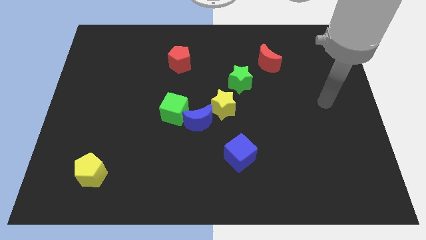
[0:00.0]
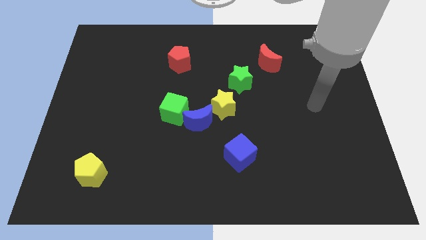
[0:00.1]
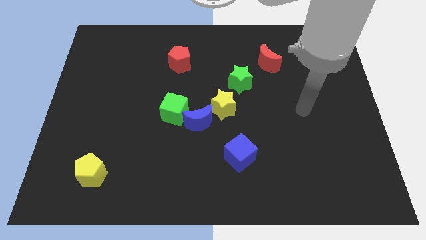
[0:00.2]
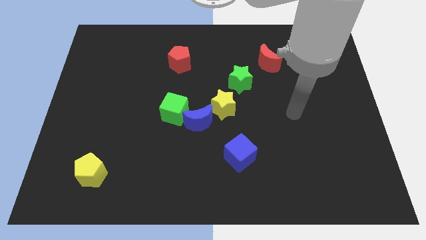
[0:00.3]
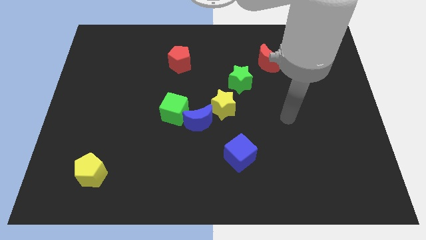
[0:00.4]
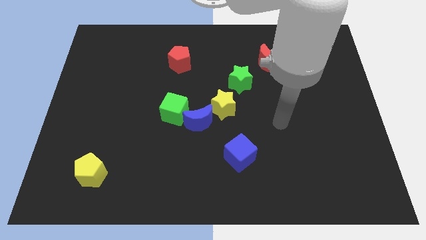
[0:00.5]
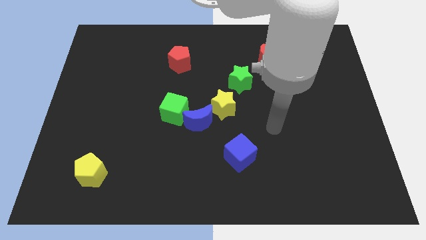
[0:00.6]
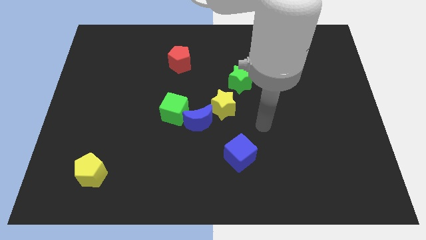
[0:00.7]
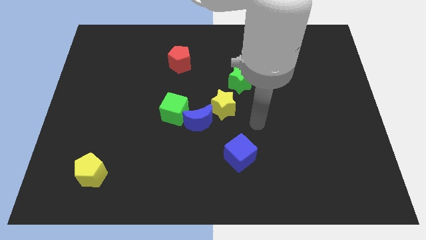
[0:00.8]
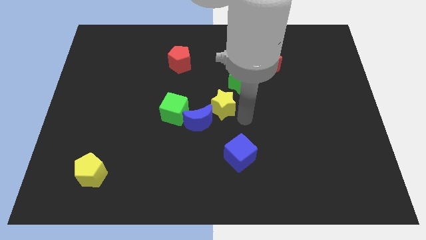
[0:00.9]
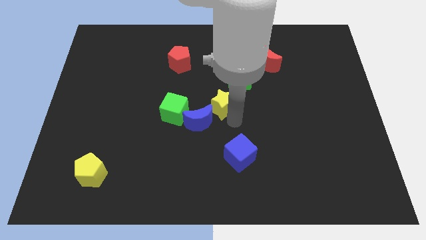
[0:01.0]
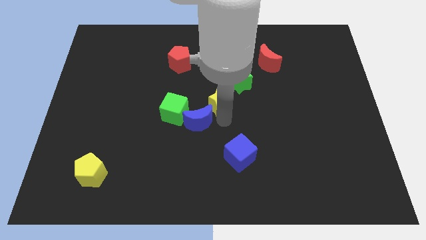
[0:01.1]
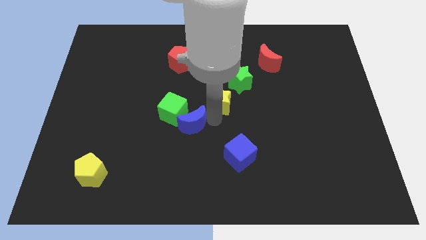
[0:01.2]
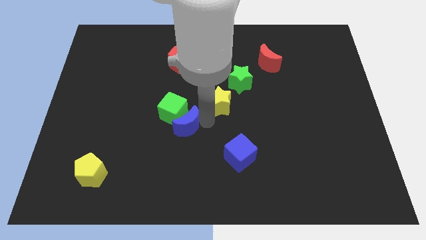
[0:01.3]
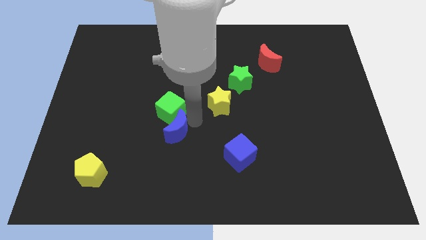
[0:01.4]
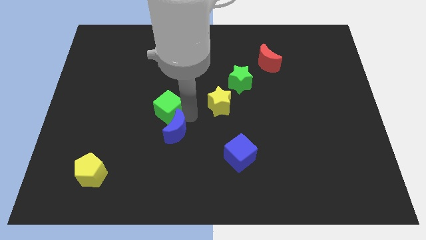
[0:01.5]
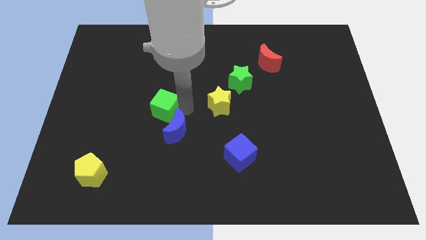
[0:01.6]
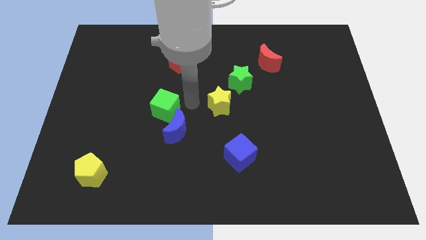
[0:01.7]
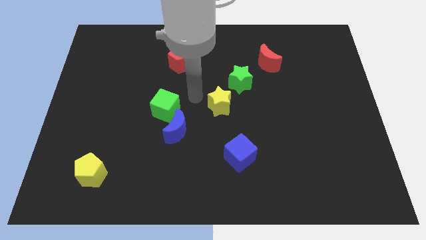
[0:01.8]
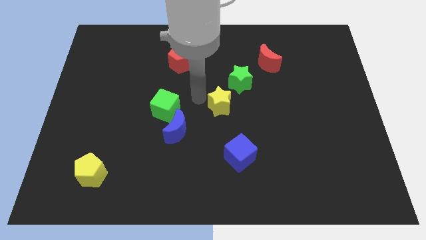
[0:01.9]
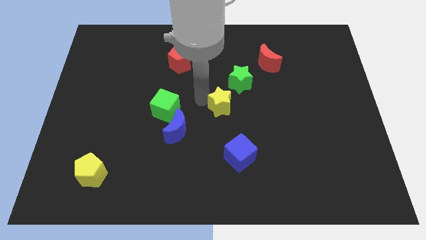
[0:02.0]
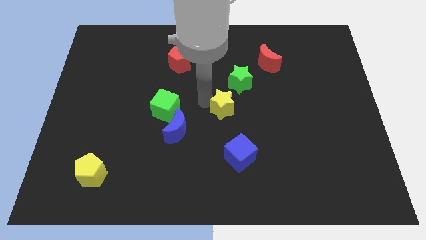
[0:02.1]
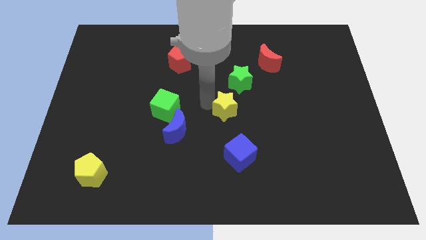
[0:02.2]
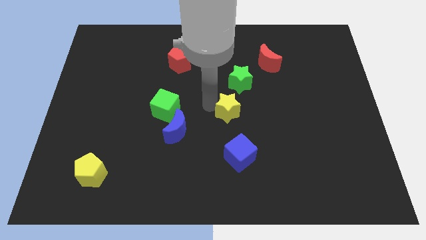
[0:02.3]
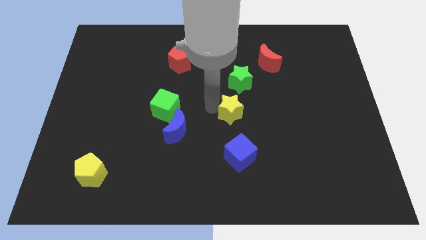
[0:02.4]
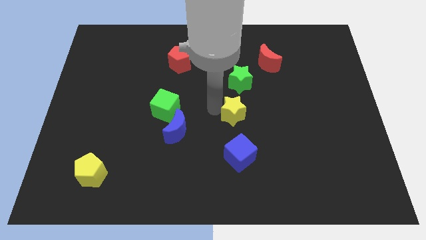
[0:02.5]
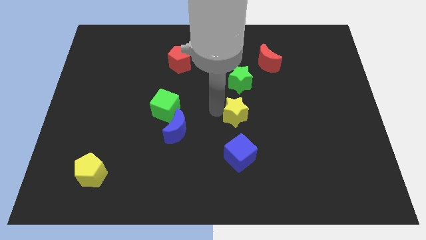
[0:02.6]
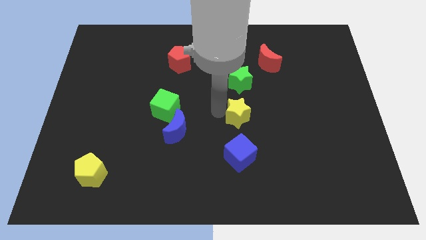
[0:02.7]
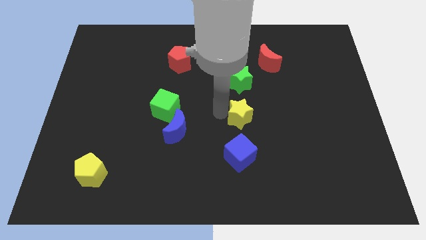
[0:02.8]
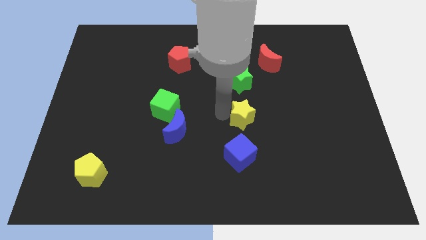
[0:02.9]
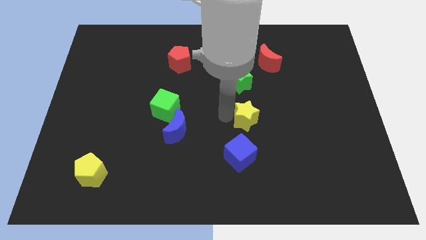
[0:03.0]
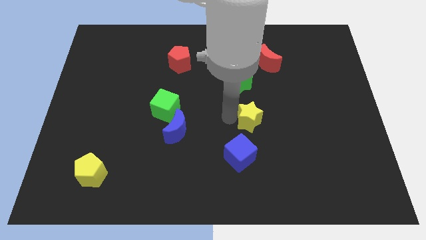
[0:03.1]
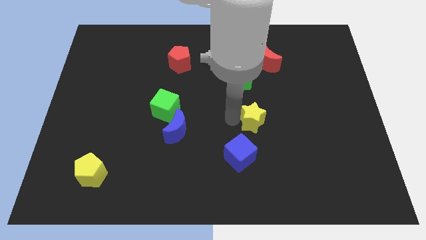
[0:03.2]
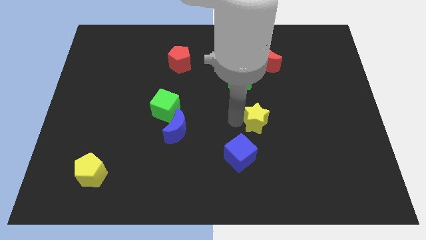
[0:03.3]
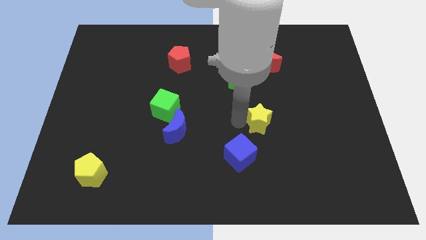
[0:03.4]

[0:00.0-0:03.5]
slide the yellow star slightly right

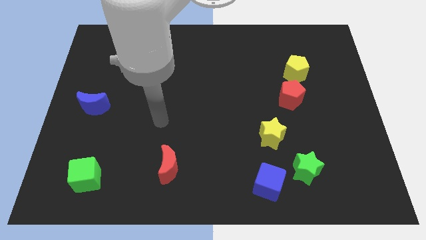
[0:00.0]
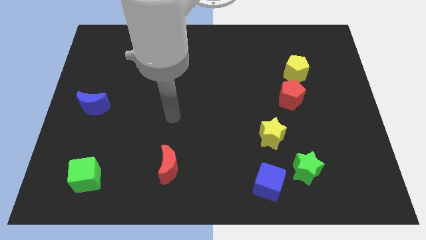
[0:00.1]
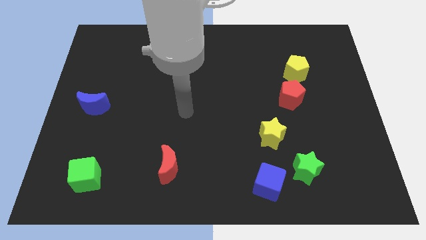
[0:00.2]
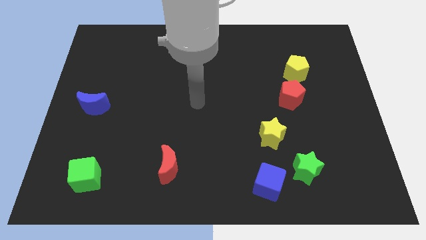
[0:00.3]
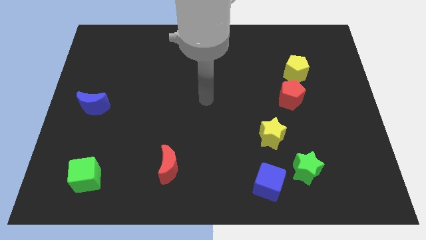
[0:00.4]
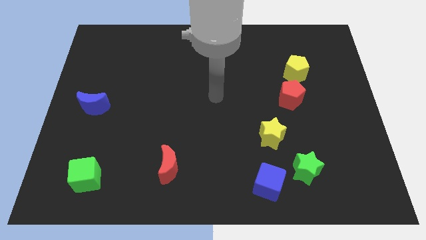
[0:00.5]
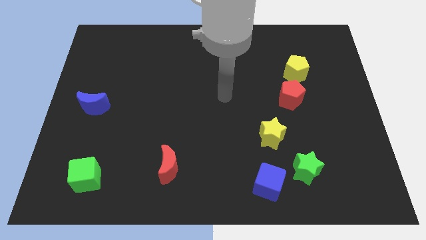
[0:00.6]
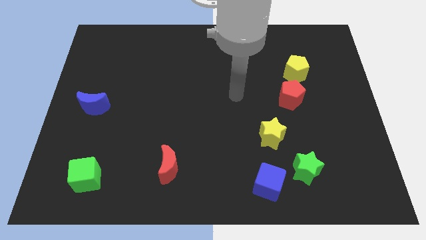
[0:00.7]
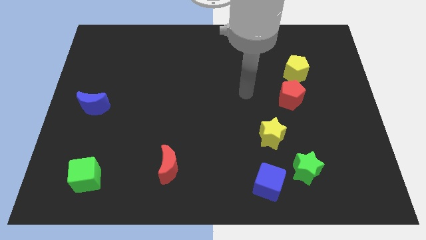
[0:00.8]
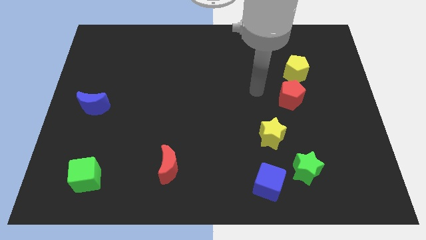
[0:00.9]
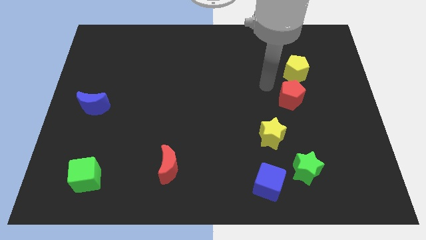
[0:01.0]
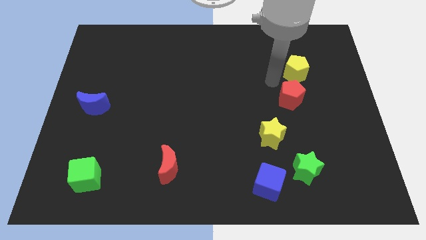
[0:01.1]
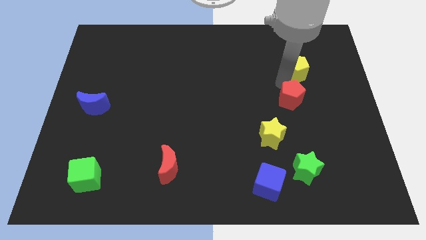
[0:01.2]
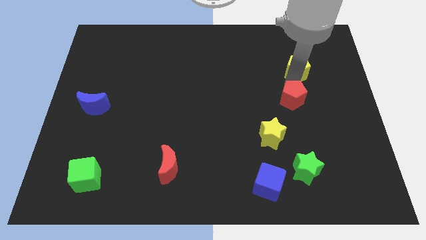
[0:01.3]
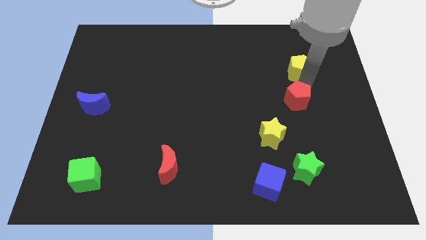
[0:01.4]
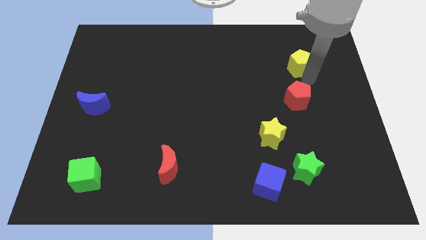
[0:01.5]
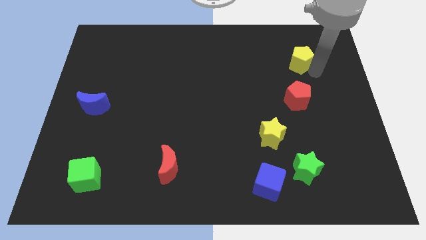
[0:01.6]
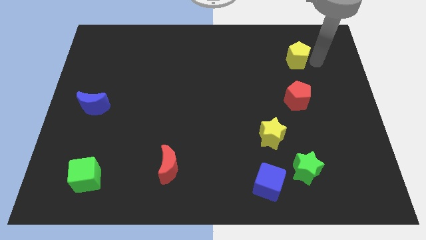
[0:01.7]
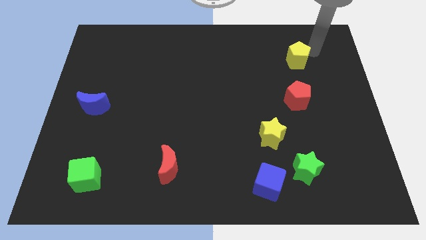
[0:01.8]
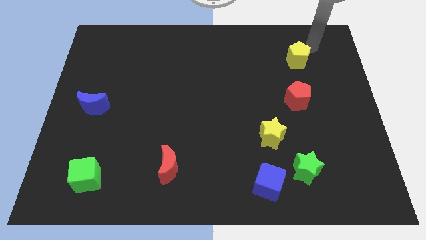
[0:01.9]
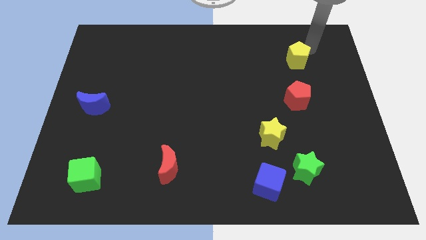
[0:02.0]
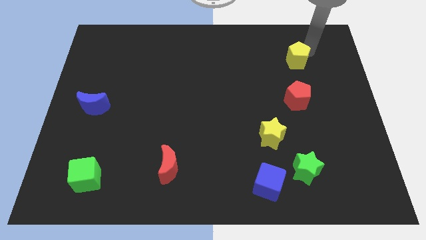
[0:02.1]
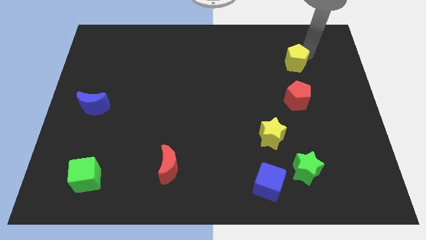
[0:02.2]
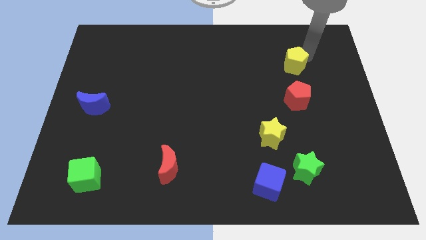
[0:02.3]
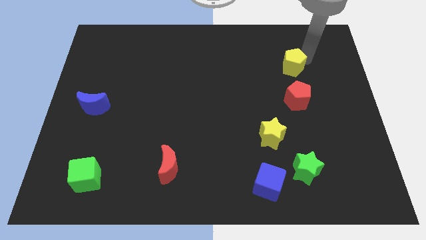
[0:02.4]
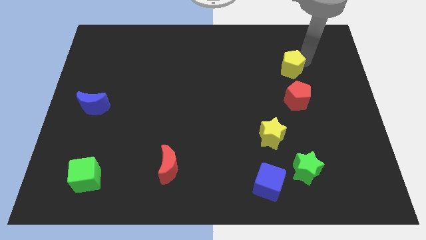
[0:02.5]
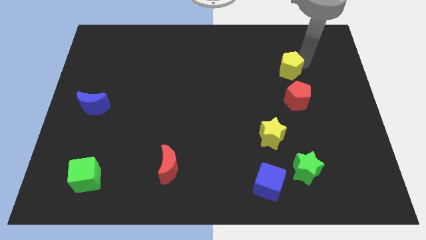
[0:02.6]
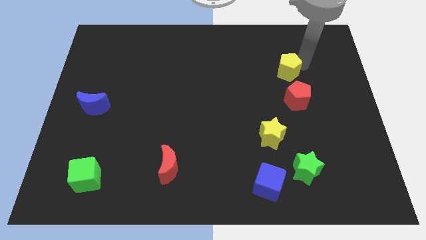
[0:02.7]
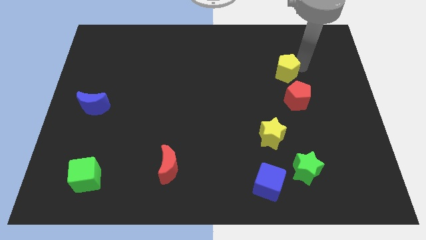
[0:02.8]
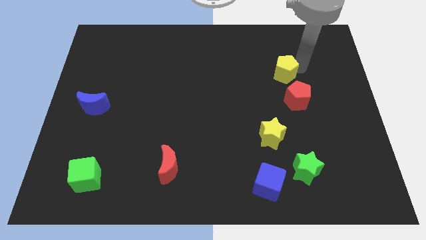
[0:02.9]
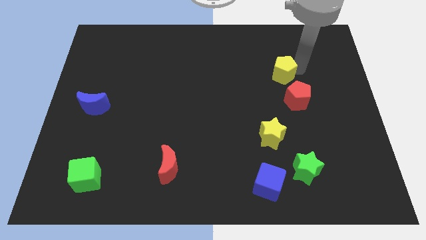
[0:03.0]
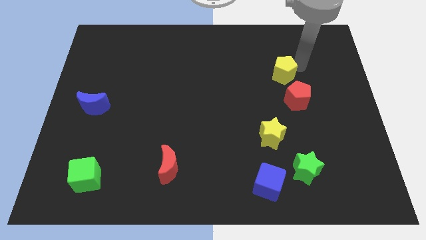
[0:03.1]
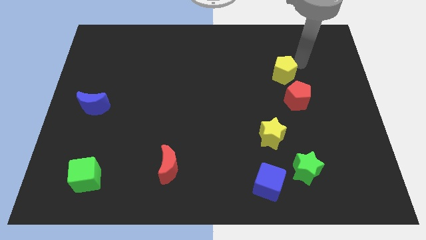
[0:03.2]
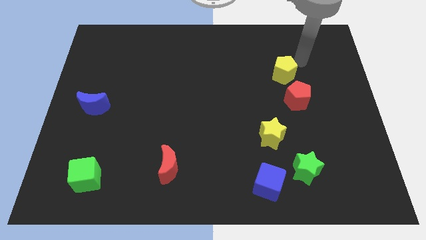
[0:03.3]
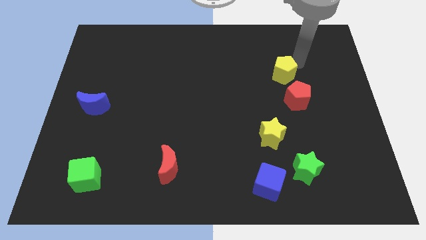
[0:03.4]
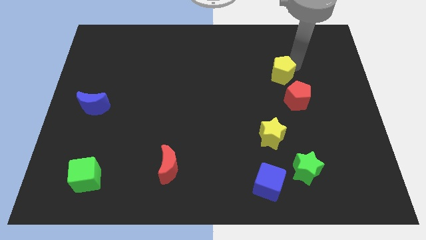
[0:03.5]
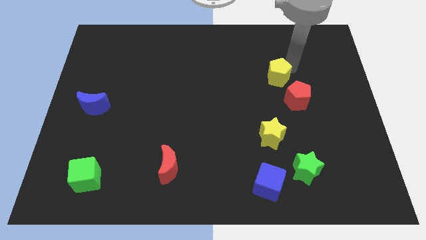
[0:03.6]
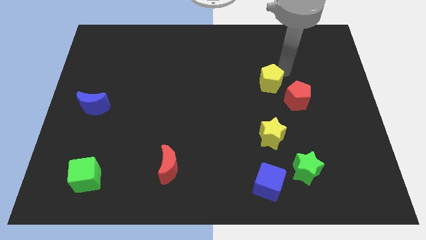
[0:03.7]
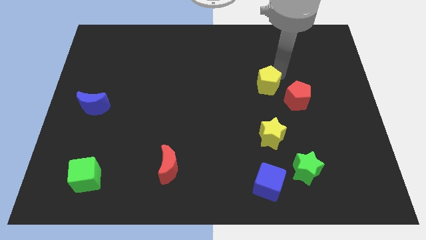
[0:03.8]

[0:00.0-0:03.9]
slightly push the yellow pentagon diagonally down and to the left

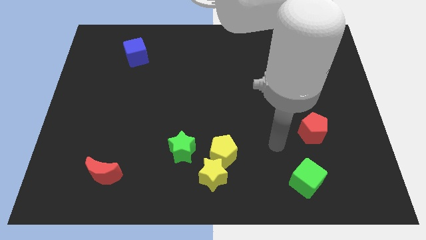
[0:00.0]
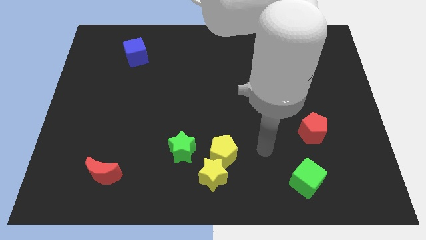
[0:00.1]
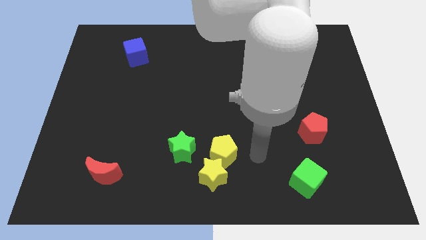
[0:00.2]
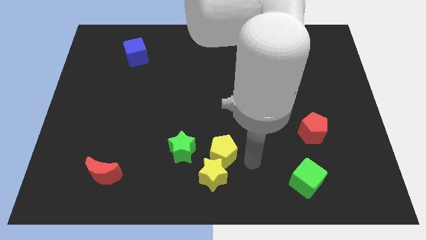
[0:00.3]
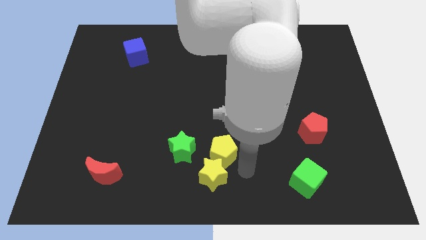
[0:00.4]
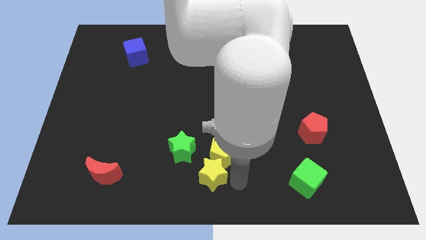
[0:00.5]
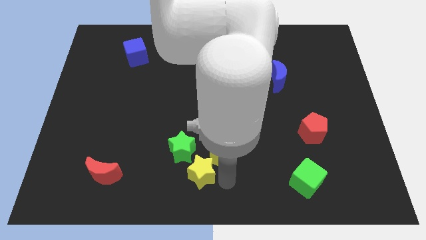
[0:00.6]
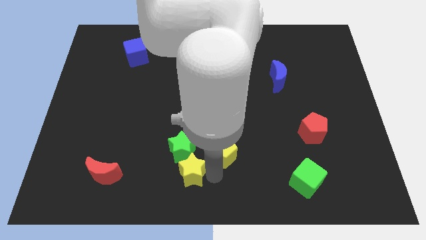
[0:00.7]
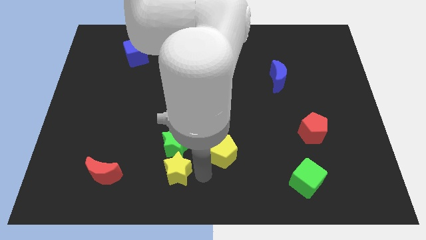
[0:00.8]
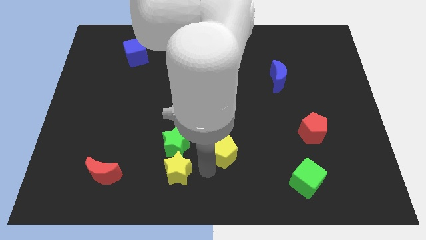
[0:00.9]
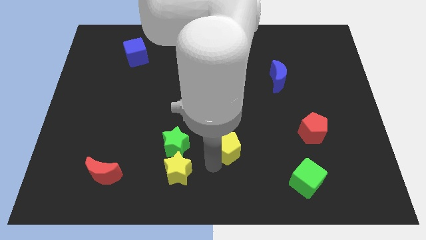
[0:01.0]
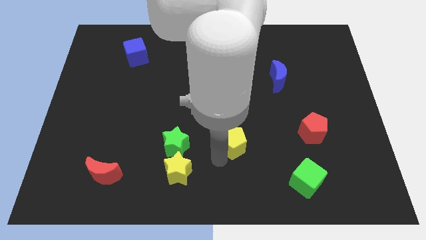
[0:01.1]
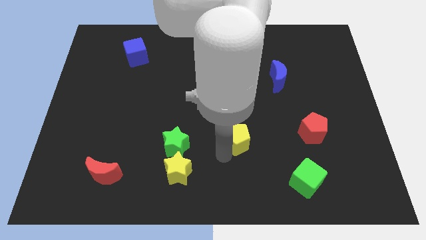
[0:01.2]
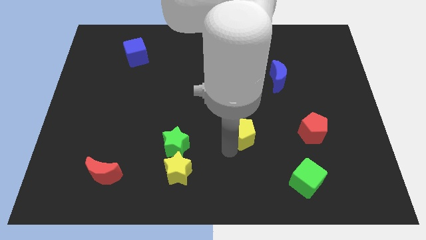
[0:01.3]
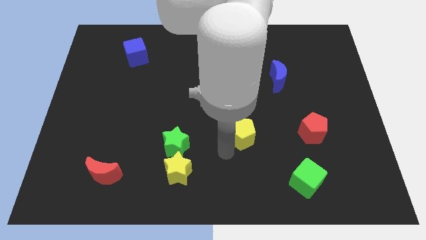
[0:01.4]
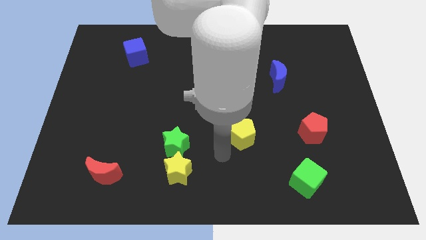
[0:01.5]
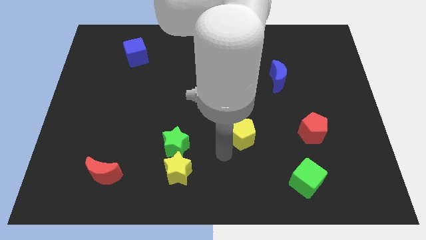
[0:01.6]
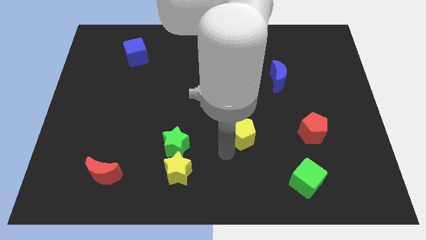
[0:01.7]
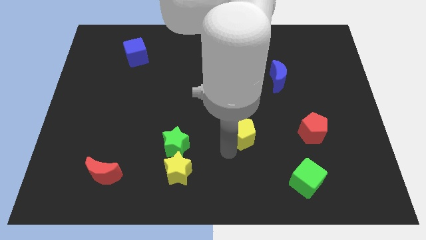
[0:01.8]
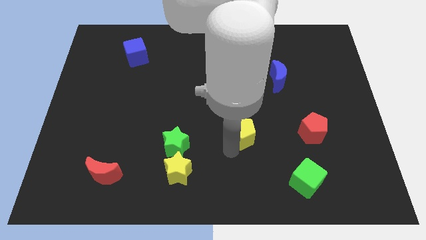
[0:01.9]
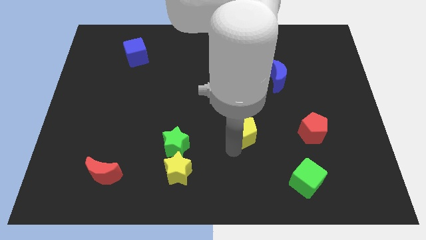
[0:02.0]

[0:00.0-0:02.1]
slide the yellow pentagon diagonally up and to the right a bit
